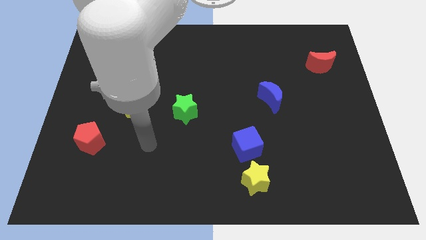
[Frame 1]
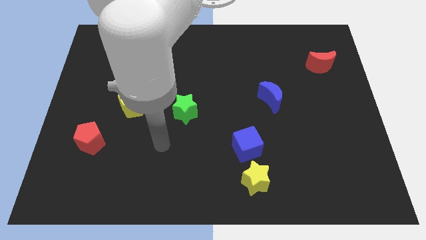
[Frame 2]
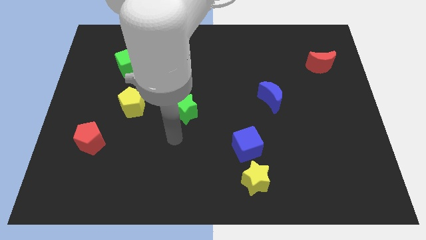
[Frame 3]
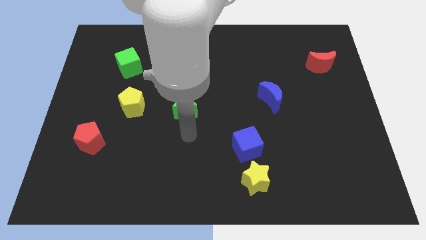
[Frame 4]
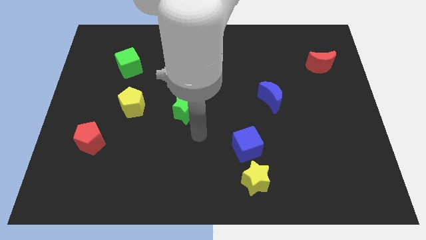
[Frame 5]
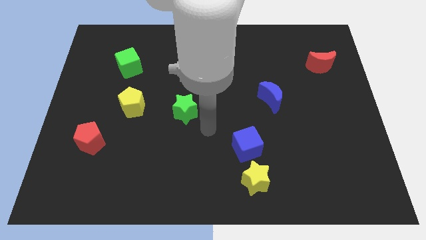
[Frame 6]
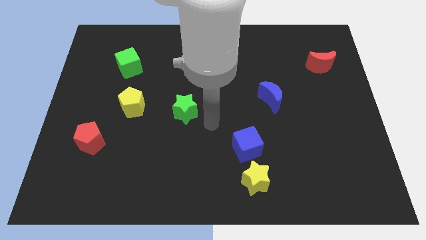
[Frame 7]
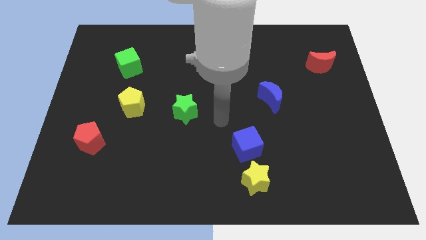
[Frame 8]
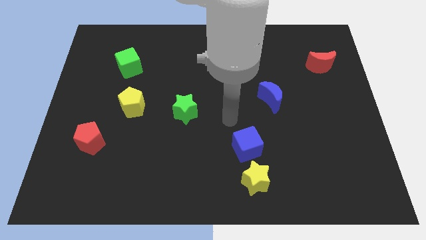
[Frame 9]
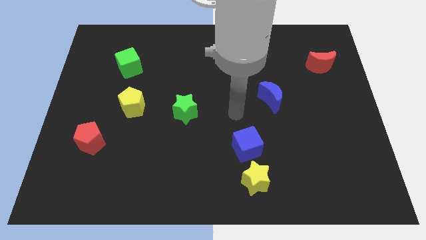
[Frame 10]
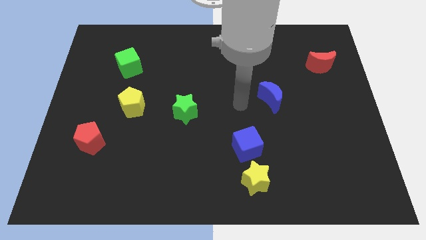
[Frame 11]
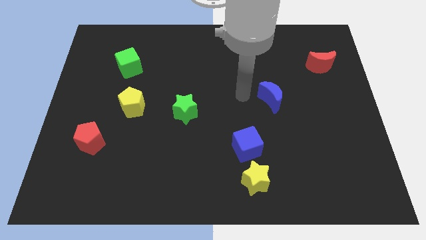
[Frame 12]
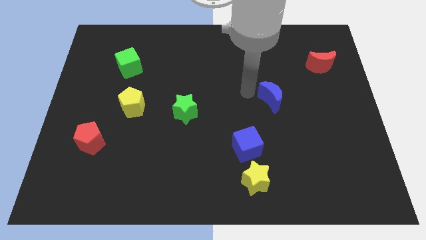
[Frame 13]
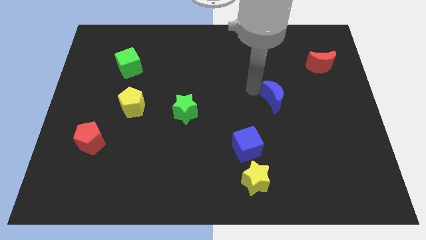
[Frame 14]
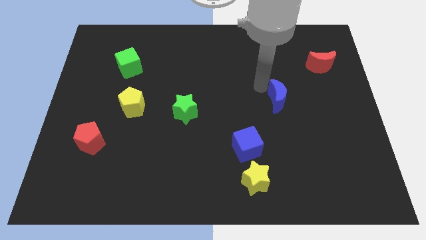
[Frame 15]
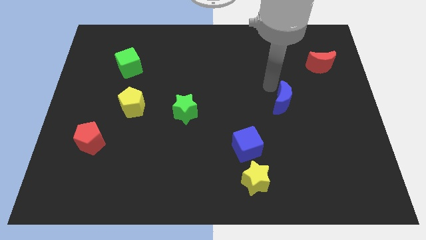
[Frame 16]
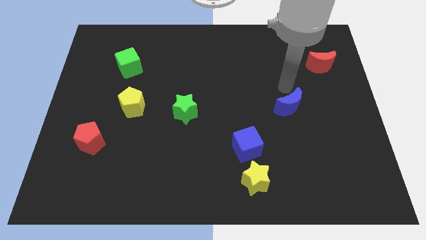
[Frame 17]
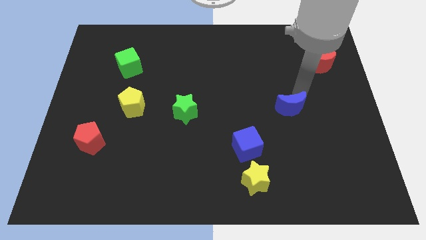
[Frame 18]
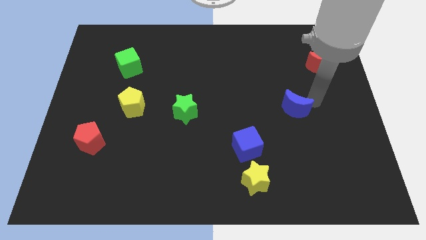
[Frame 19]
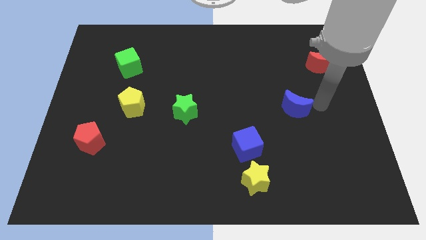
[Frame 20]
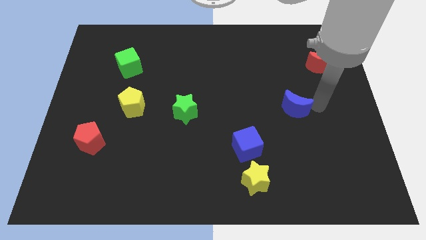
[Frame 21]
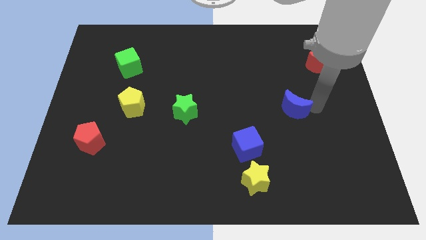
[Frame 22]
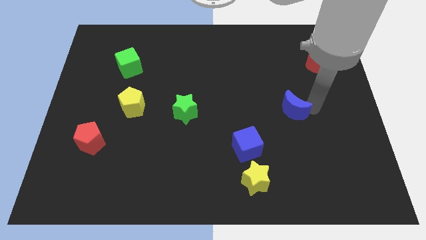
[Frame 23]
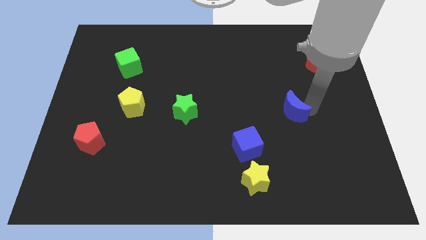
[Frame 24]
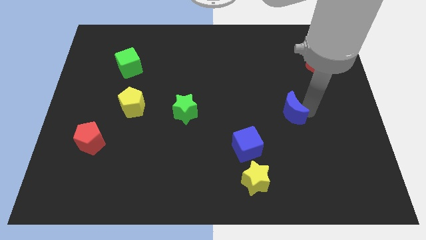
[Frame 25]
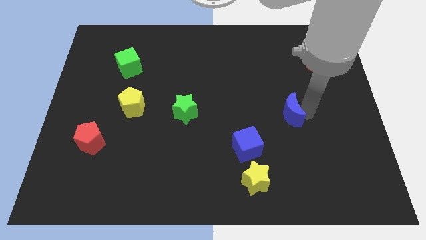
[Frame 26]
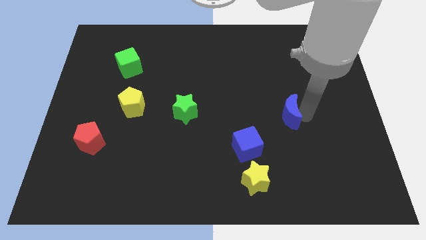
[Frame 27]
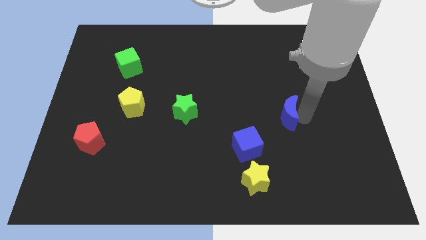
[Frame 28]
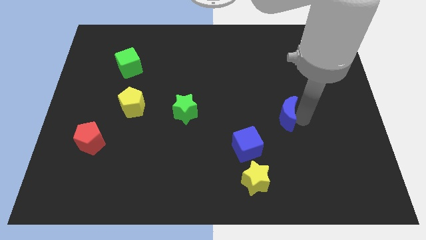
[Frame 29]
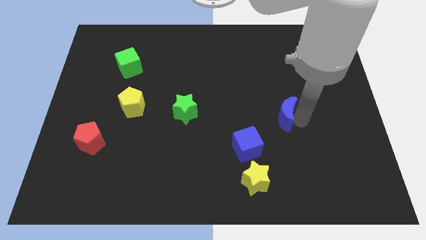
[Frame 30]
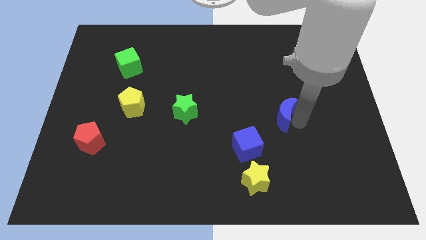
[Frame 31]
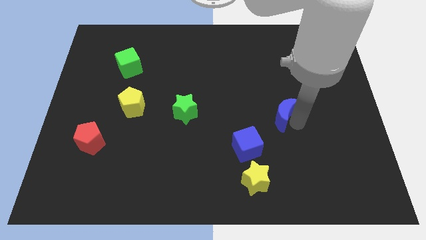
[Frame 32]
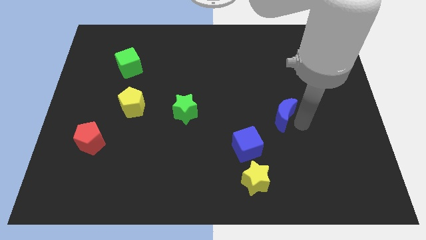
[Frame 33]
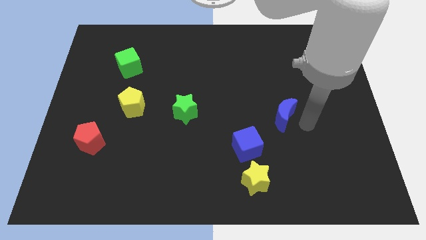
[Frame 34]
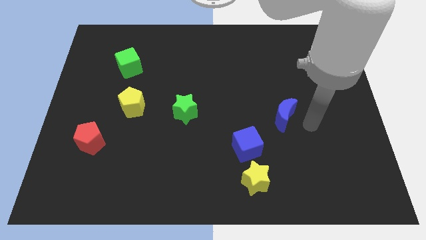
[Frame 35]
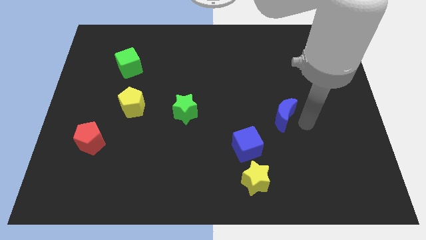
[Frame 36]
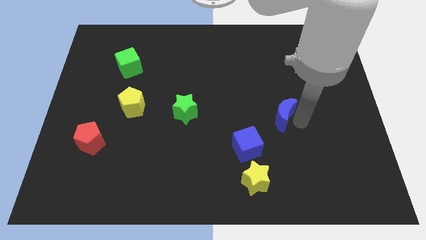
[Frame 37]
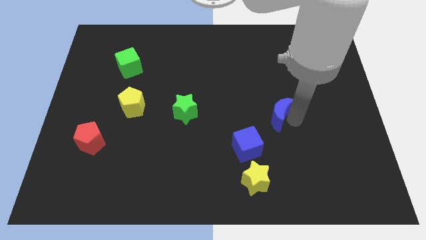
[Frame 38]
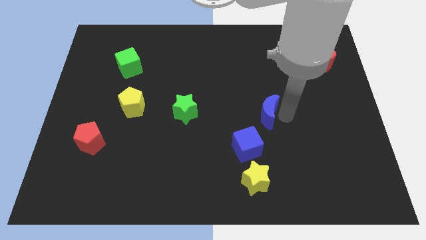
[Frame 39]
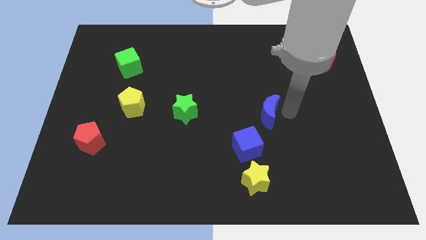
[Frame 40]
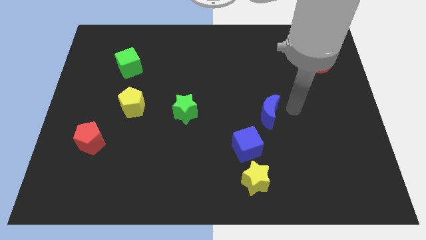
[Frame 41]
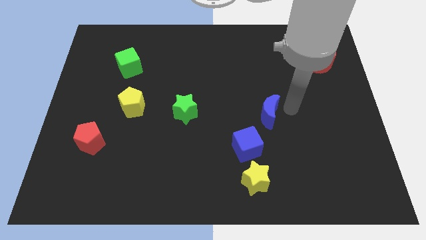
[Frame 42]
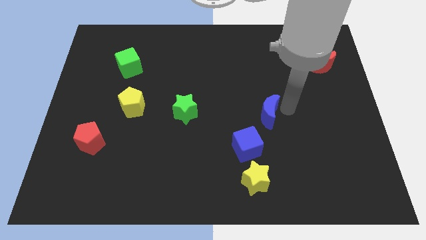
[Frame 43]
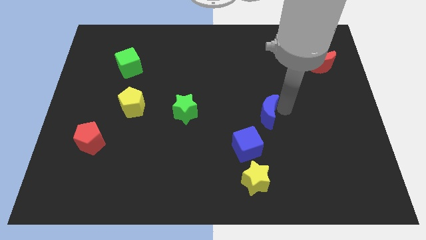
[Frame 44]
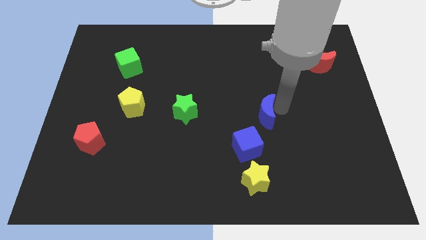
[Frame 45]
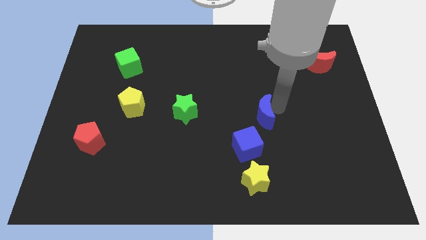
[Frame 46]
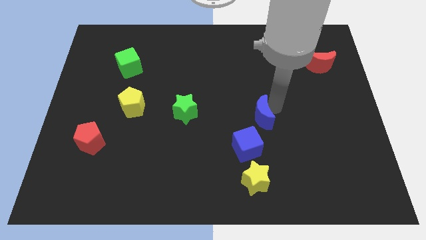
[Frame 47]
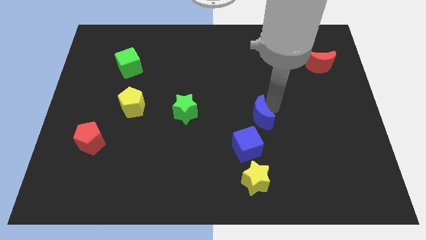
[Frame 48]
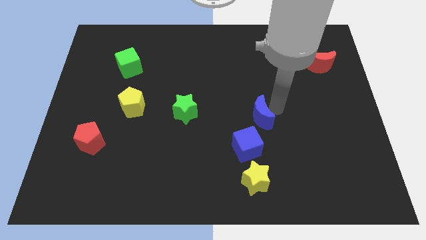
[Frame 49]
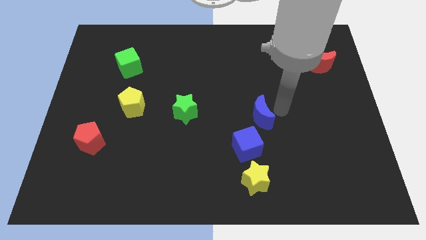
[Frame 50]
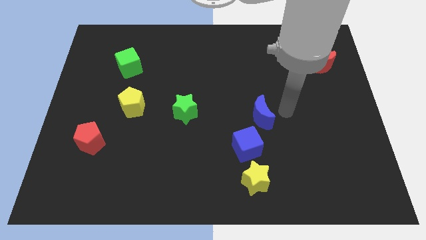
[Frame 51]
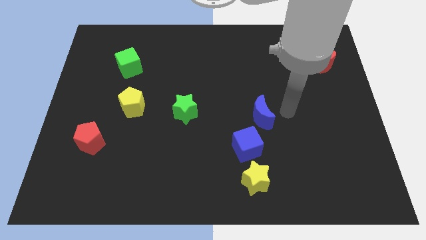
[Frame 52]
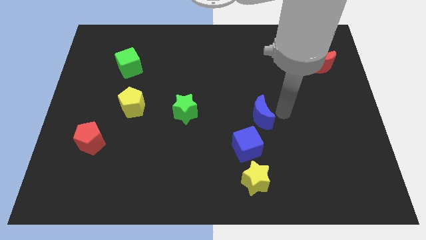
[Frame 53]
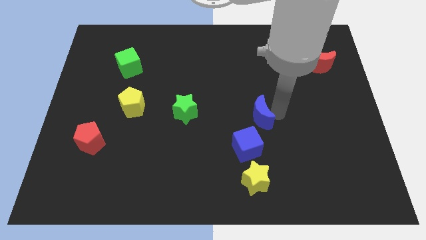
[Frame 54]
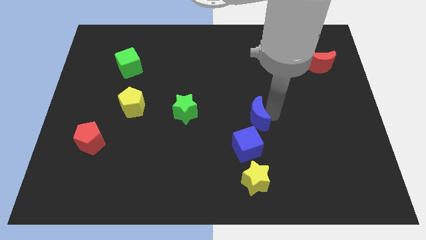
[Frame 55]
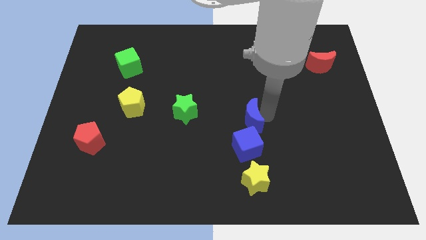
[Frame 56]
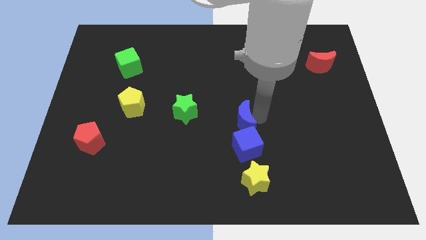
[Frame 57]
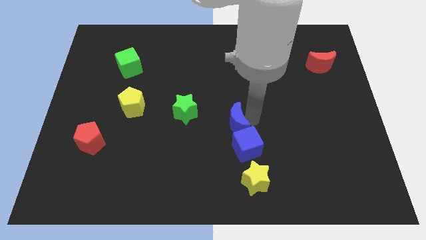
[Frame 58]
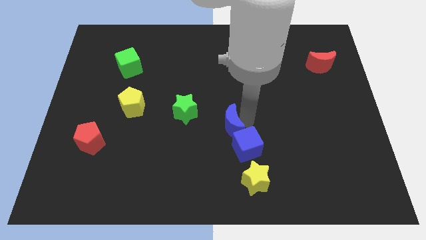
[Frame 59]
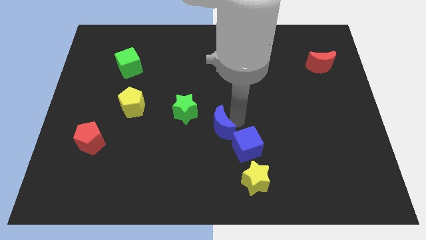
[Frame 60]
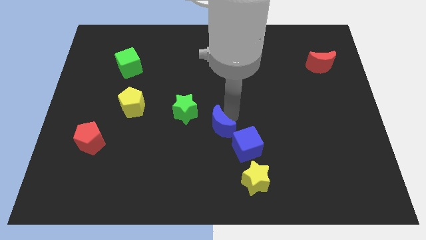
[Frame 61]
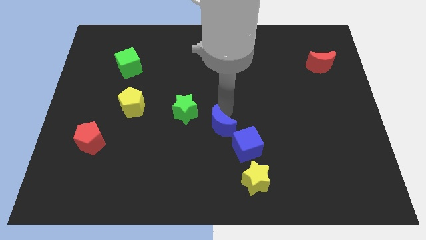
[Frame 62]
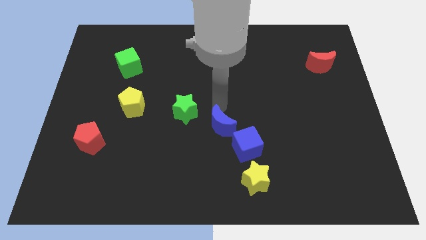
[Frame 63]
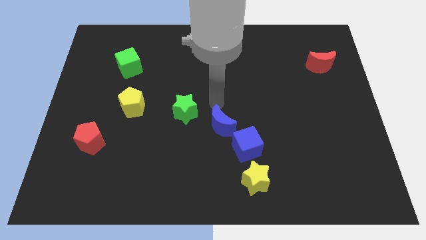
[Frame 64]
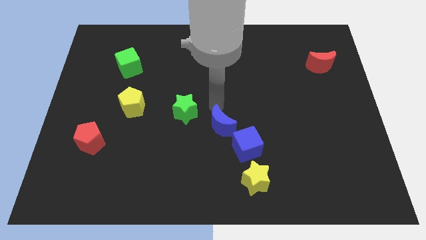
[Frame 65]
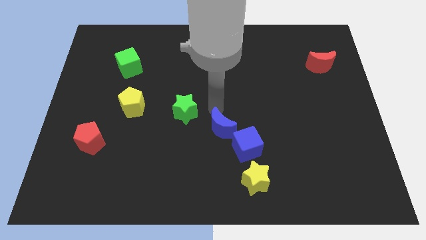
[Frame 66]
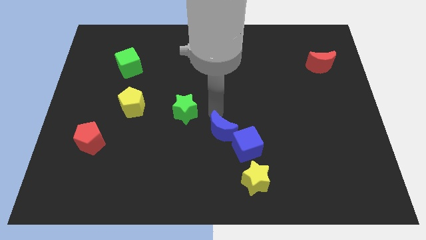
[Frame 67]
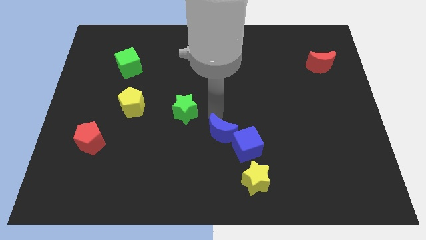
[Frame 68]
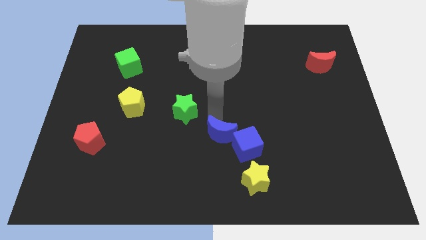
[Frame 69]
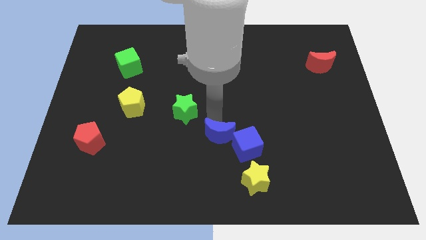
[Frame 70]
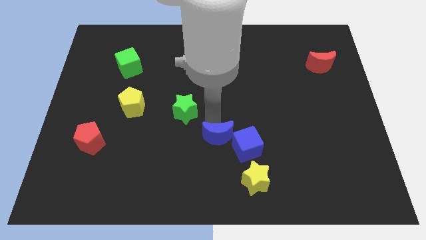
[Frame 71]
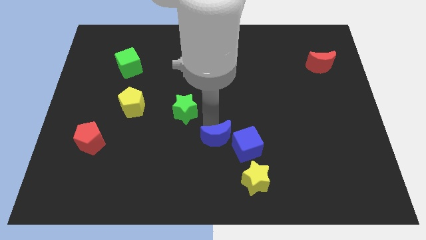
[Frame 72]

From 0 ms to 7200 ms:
move the blue moon to the top left side of the yellow star
